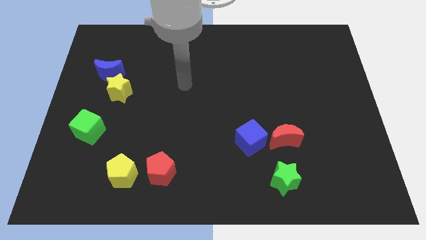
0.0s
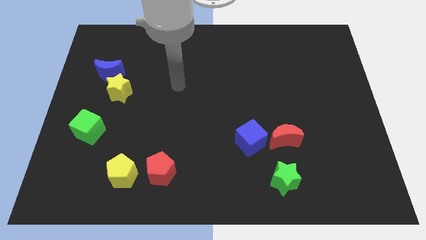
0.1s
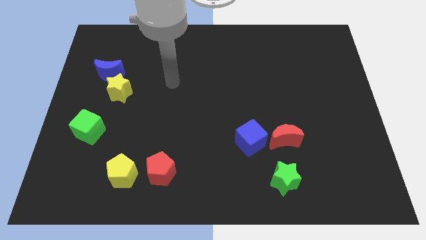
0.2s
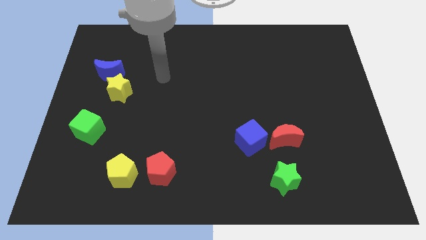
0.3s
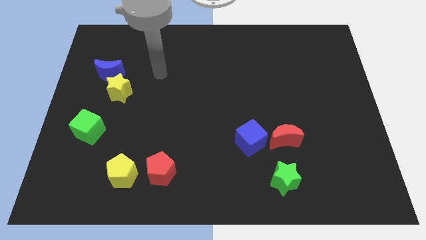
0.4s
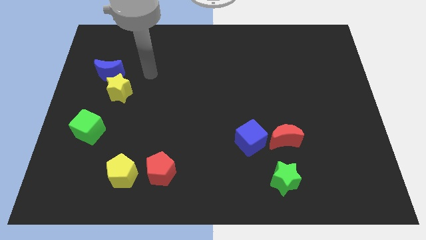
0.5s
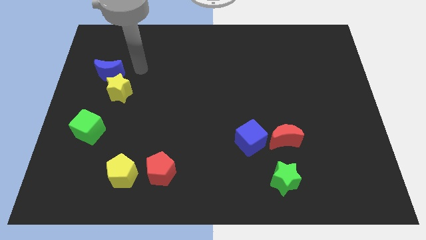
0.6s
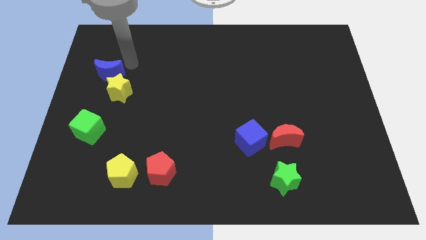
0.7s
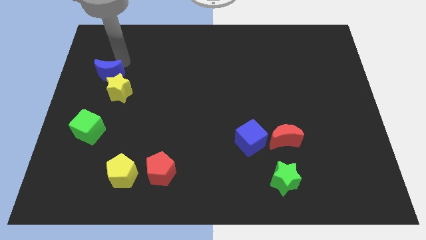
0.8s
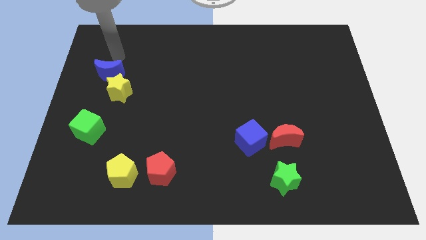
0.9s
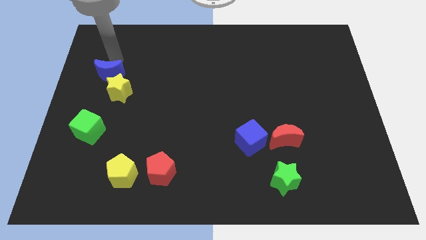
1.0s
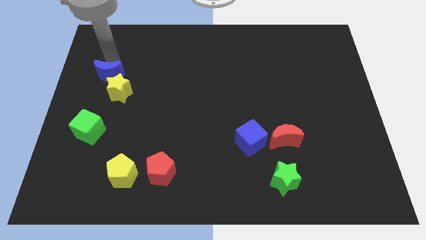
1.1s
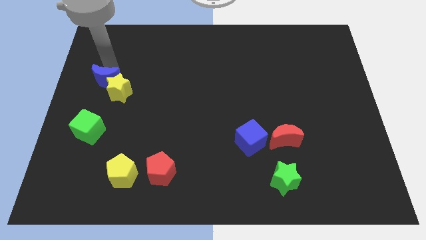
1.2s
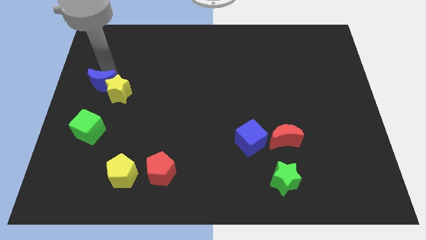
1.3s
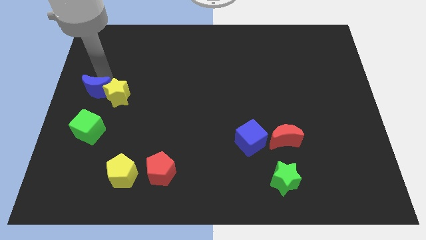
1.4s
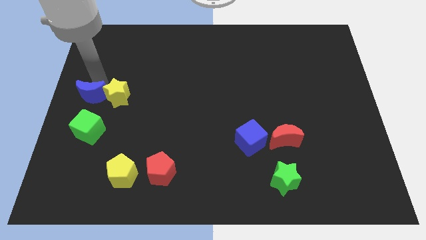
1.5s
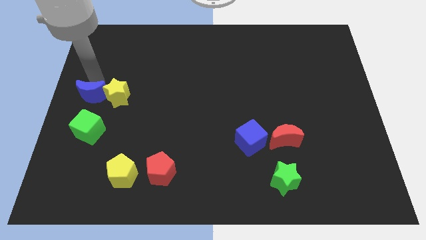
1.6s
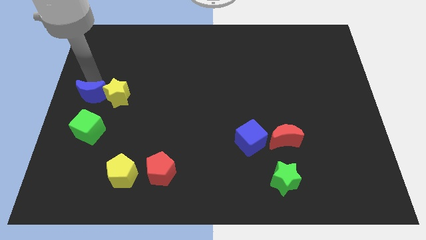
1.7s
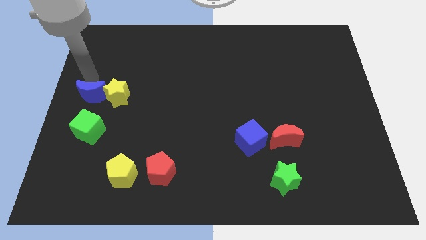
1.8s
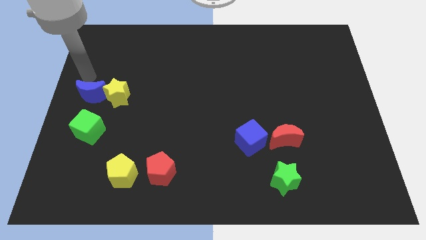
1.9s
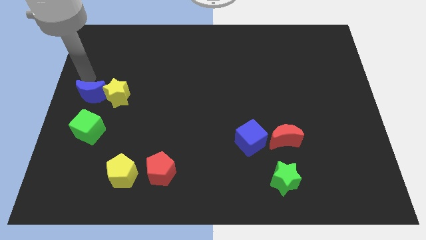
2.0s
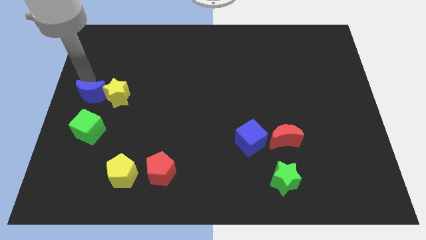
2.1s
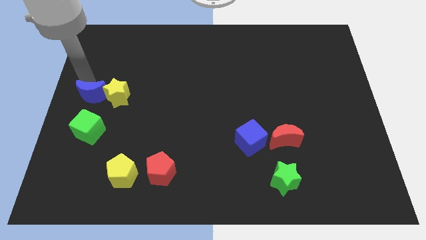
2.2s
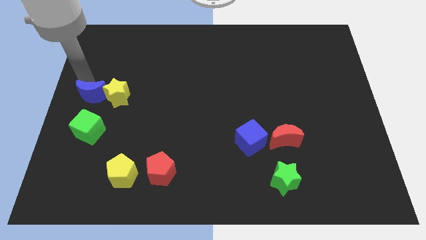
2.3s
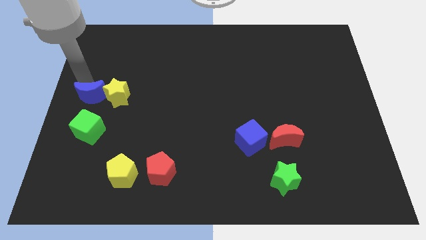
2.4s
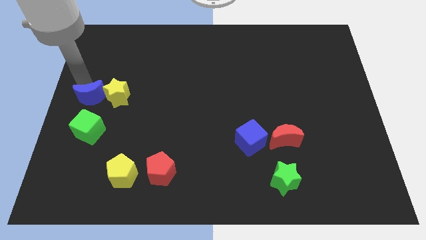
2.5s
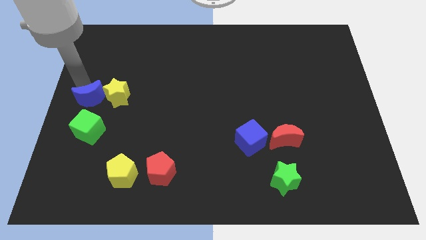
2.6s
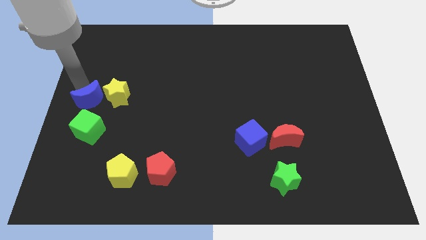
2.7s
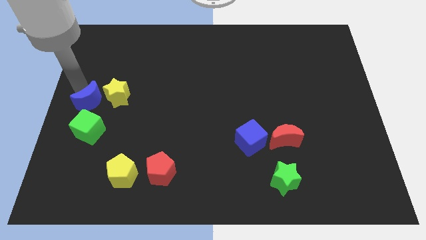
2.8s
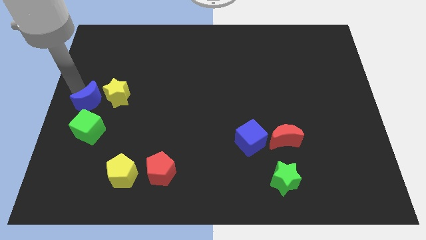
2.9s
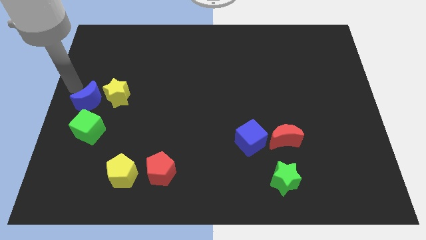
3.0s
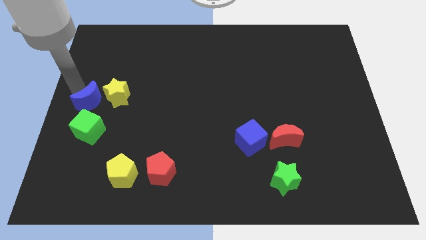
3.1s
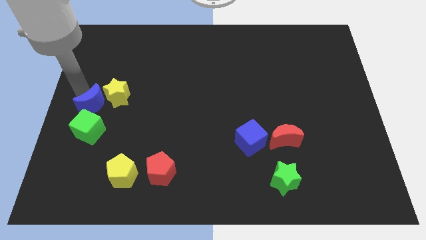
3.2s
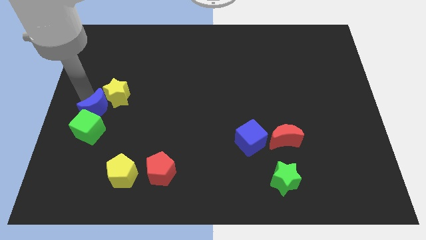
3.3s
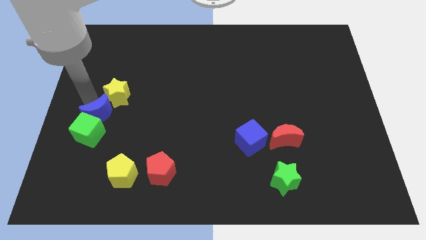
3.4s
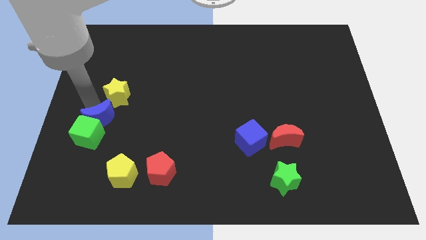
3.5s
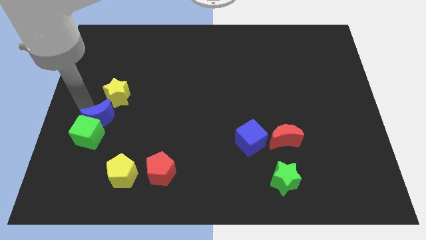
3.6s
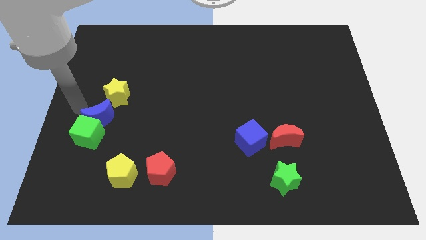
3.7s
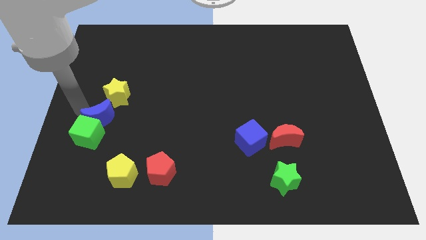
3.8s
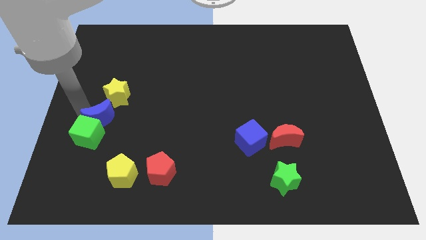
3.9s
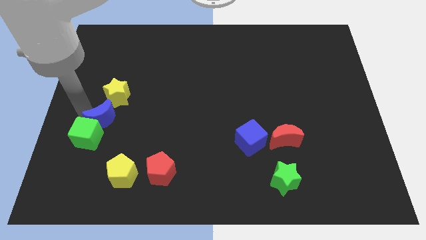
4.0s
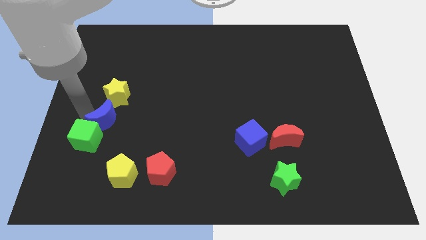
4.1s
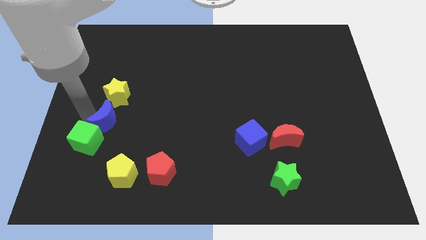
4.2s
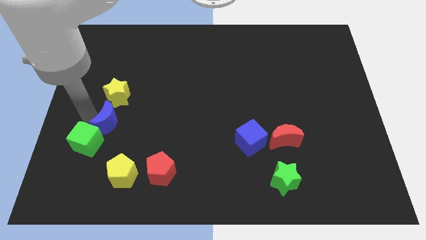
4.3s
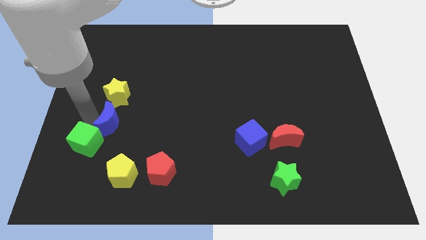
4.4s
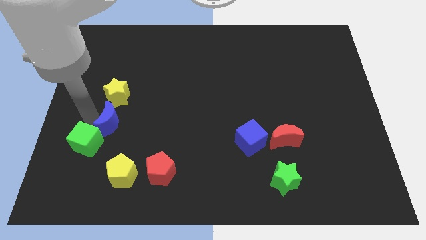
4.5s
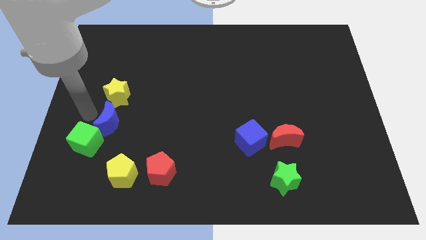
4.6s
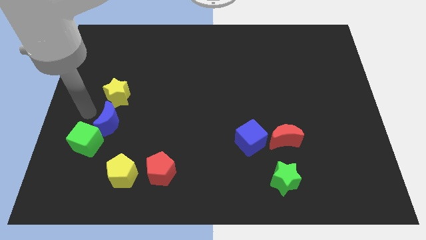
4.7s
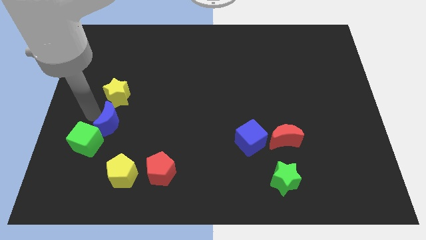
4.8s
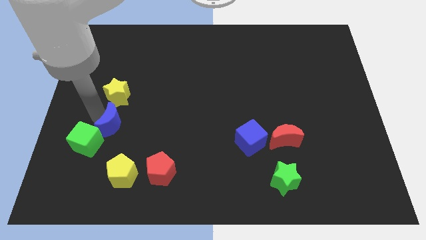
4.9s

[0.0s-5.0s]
push the blue moon to the top of the yellow pentagon

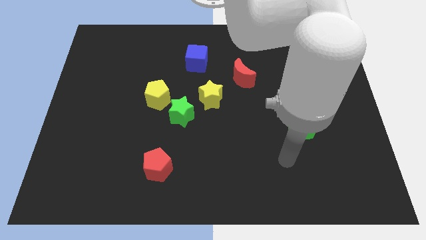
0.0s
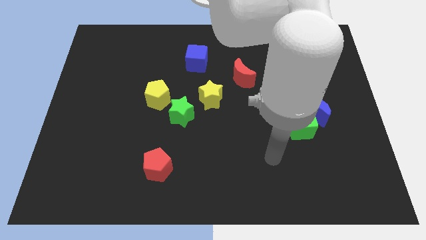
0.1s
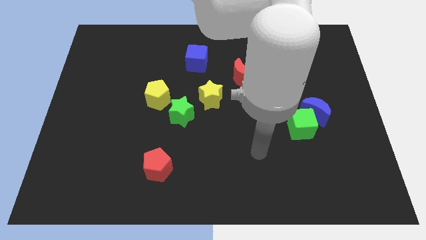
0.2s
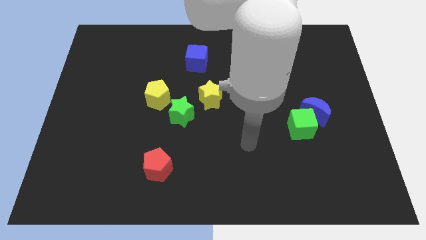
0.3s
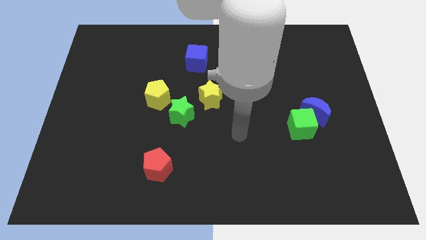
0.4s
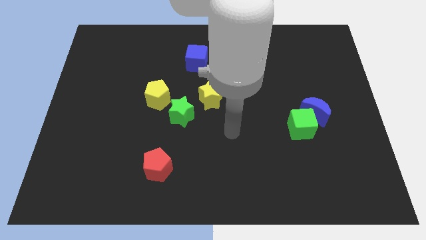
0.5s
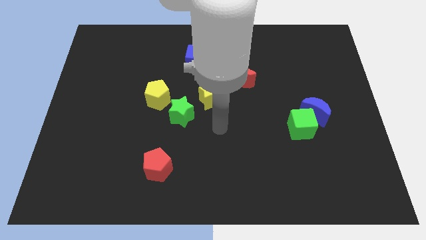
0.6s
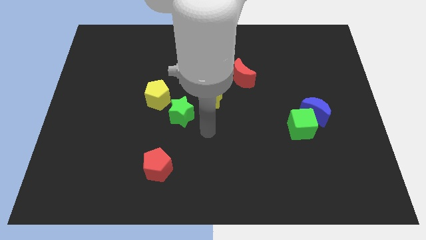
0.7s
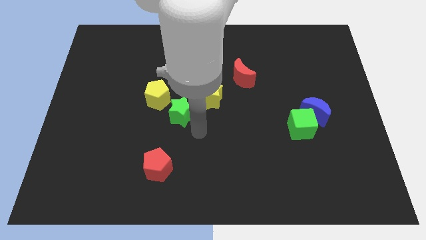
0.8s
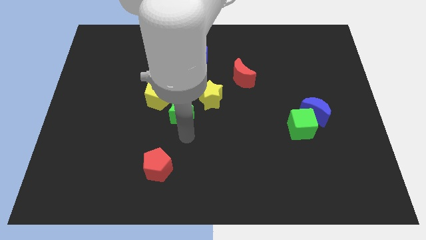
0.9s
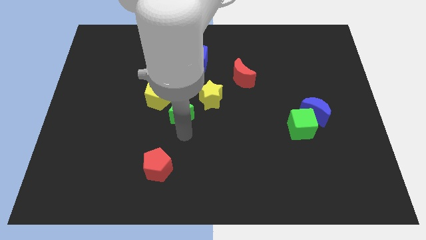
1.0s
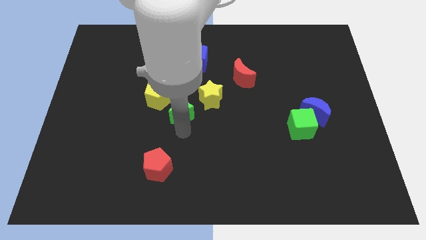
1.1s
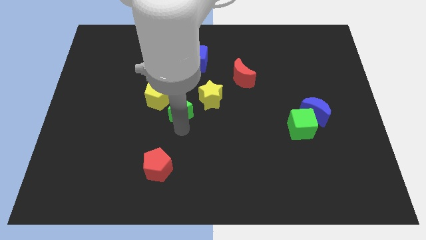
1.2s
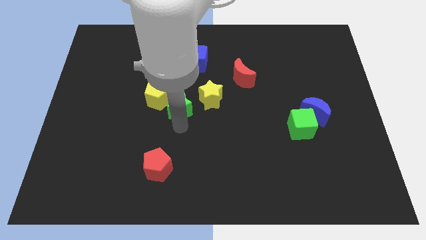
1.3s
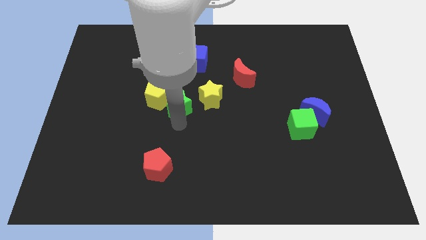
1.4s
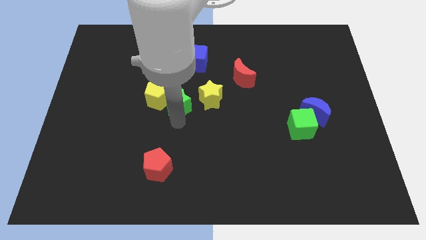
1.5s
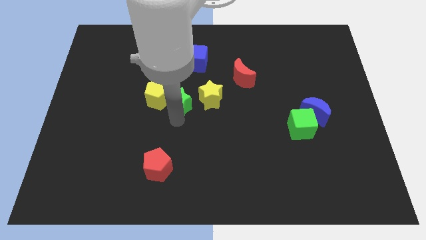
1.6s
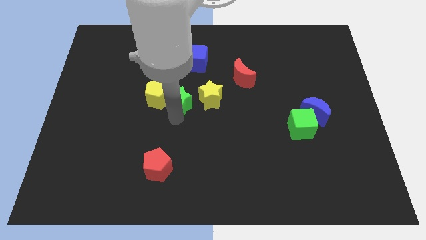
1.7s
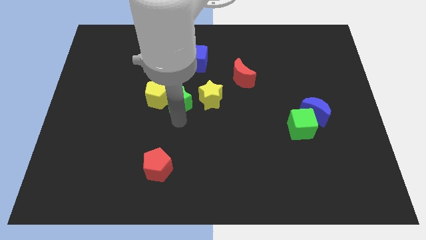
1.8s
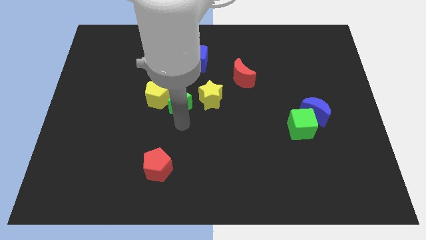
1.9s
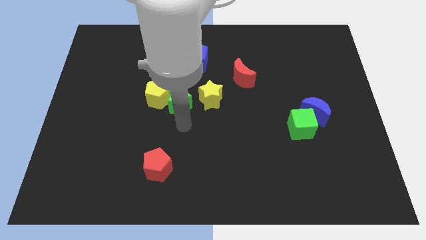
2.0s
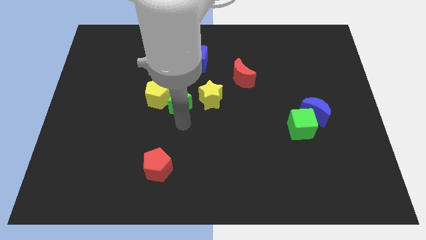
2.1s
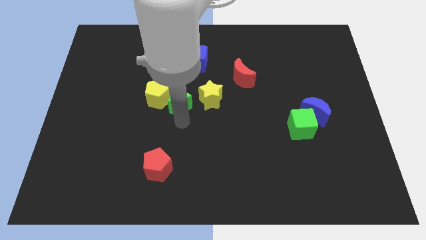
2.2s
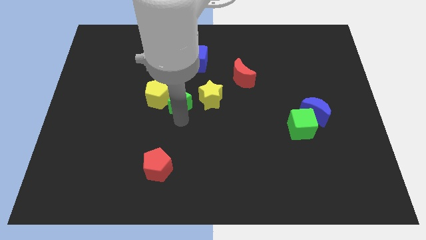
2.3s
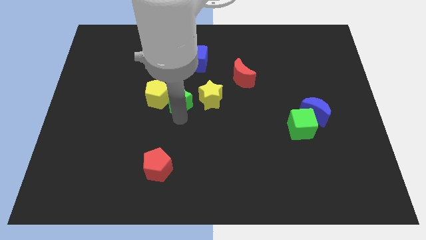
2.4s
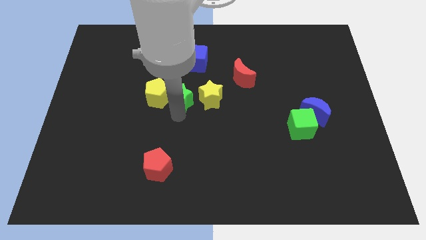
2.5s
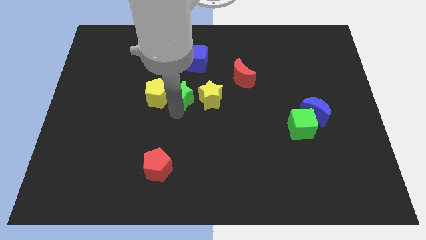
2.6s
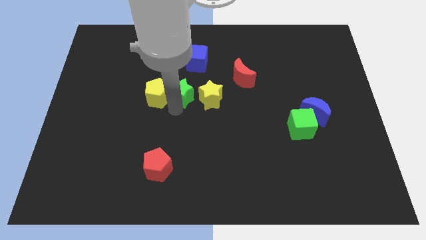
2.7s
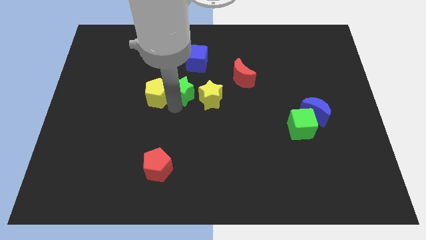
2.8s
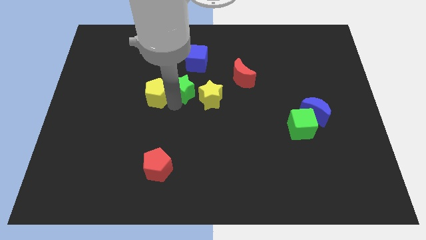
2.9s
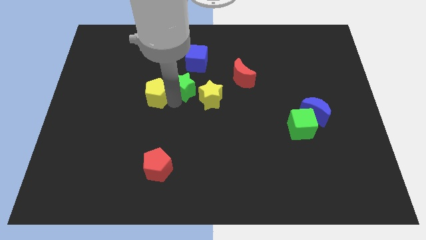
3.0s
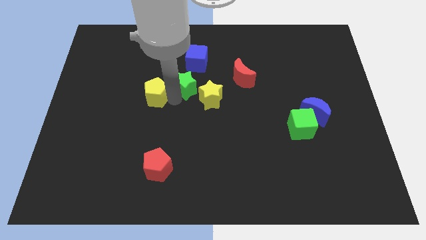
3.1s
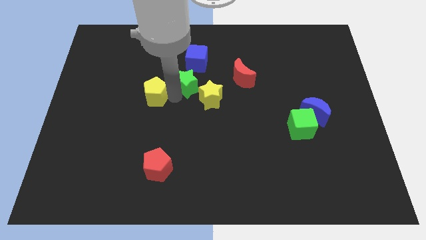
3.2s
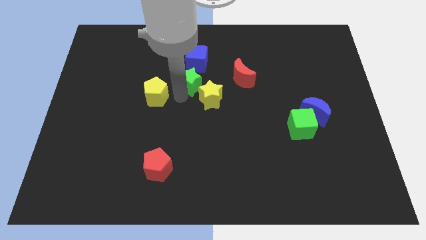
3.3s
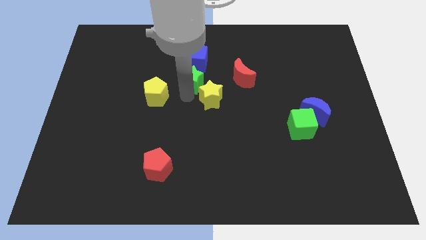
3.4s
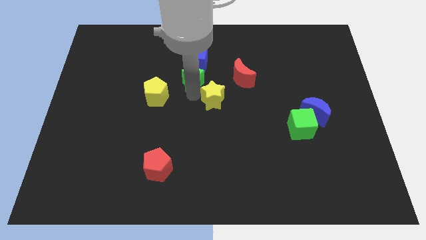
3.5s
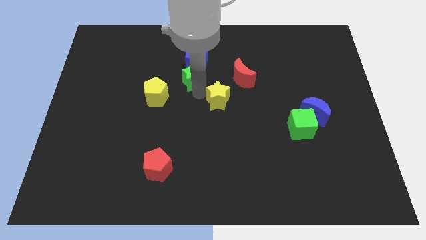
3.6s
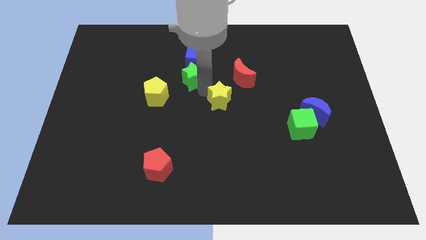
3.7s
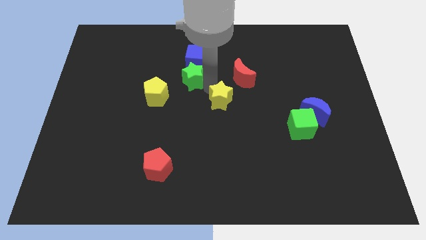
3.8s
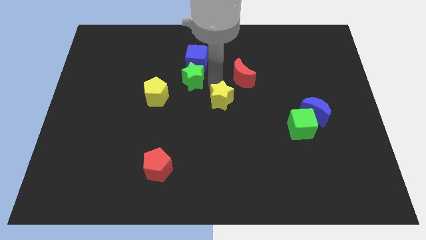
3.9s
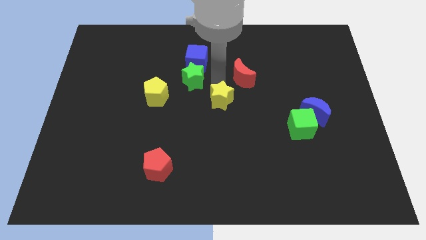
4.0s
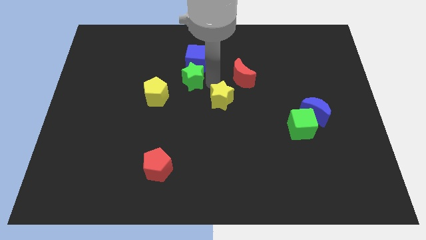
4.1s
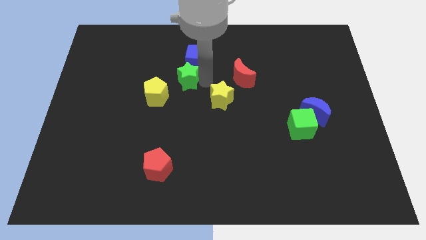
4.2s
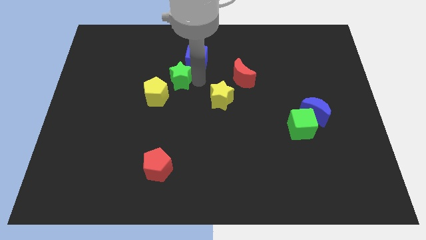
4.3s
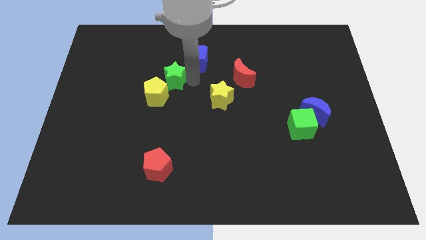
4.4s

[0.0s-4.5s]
move the green star above the yellow pentagon
